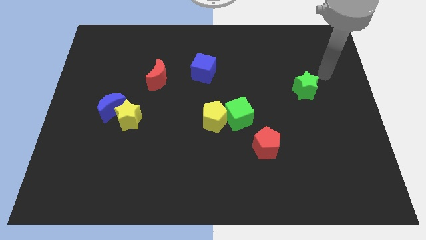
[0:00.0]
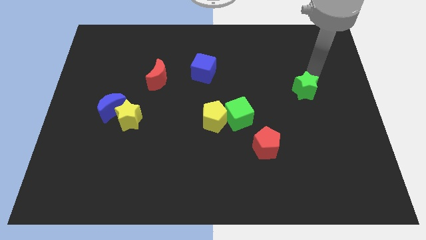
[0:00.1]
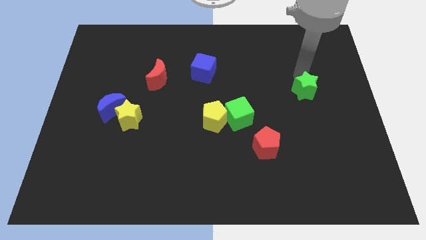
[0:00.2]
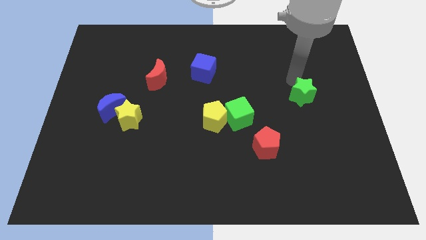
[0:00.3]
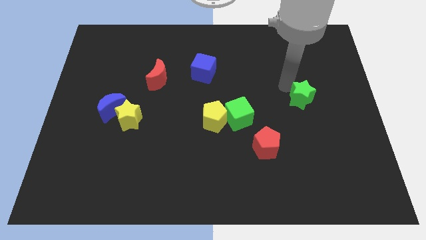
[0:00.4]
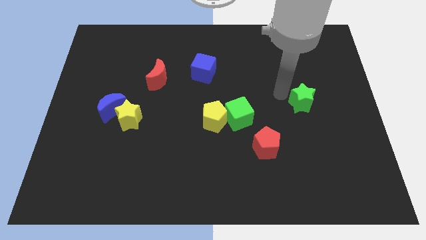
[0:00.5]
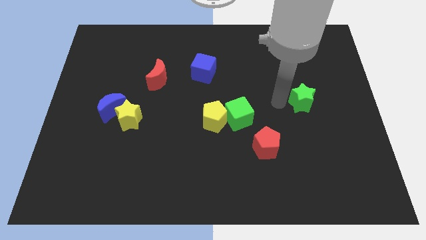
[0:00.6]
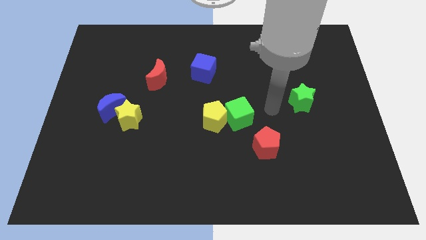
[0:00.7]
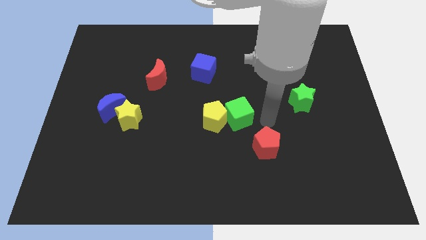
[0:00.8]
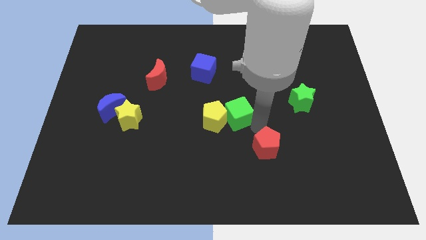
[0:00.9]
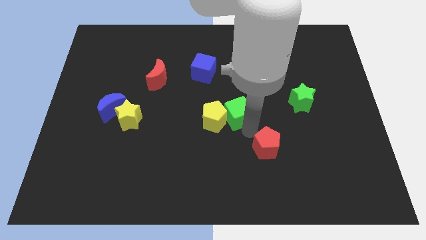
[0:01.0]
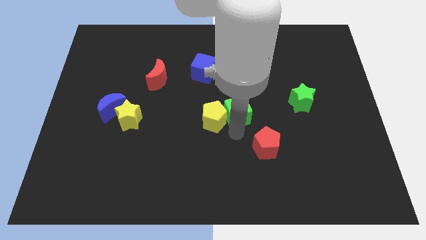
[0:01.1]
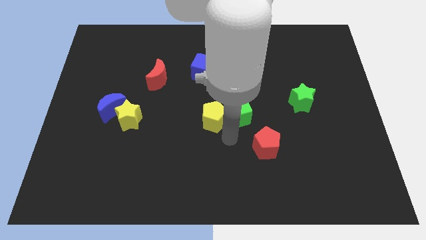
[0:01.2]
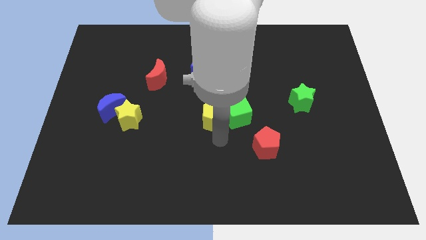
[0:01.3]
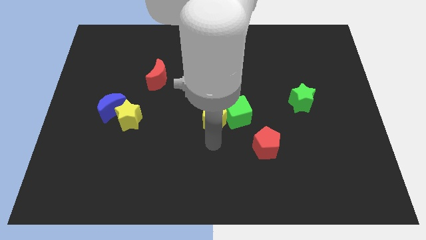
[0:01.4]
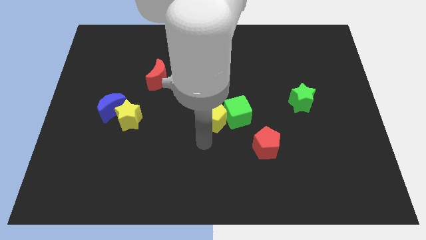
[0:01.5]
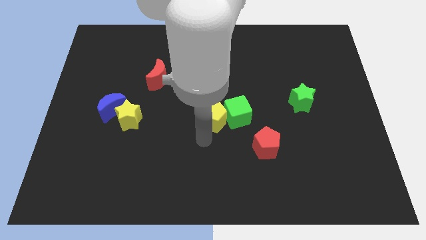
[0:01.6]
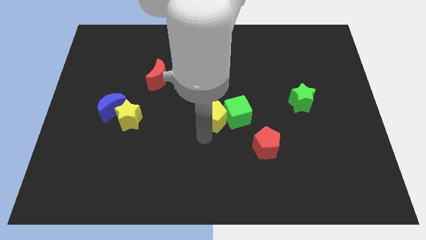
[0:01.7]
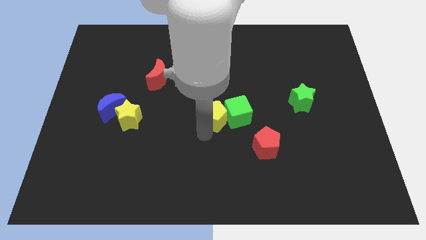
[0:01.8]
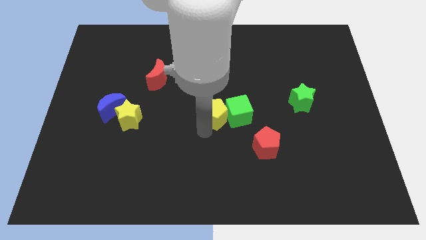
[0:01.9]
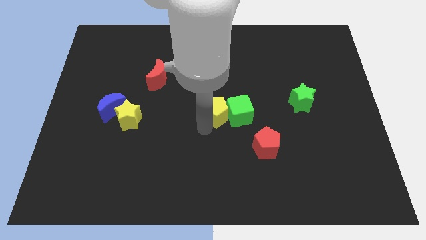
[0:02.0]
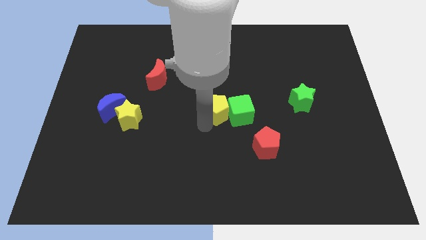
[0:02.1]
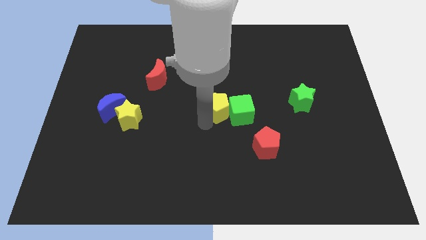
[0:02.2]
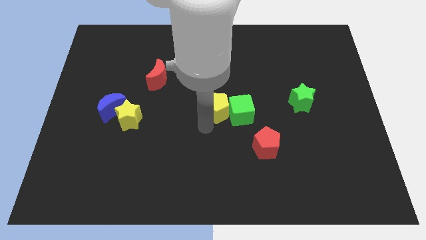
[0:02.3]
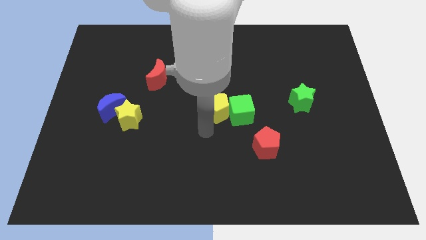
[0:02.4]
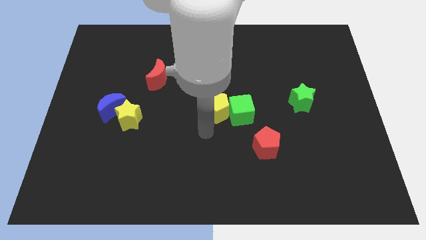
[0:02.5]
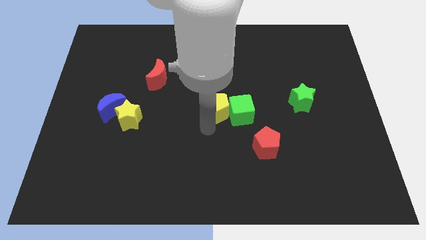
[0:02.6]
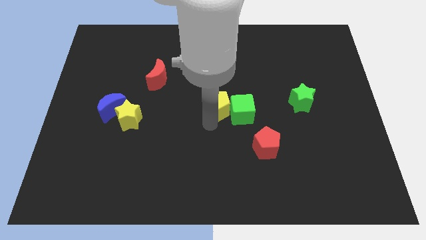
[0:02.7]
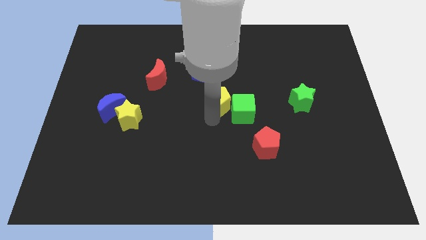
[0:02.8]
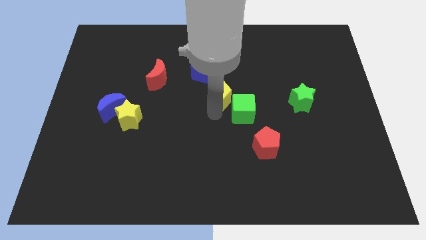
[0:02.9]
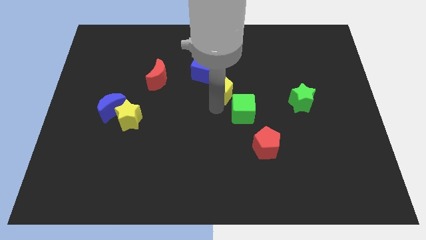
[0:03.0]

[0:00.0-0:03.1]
slightly move the yellow pentagon upwards

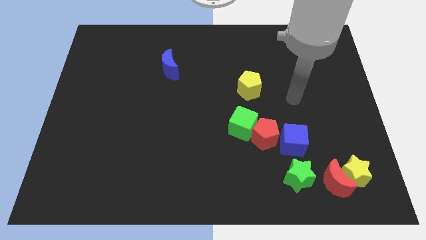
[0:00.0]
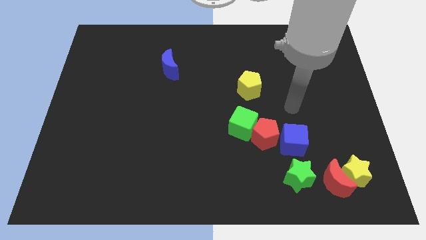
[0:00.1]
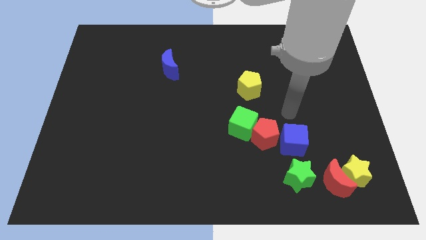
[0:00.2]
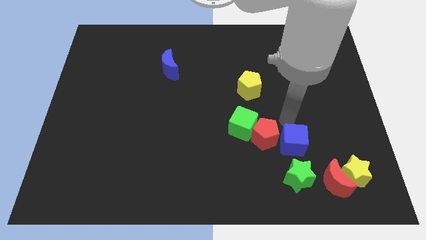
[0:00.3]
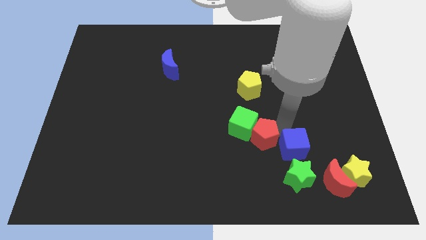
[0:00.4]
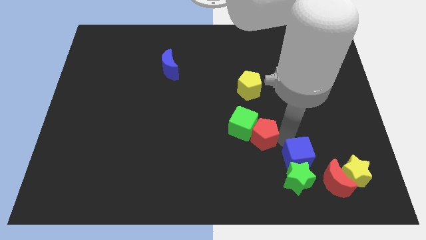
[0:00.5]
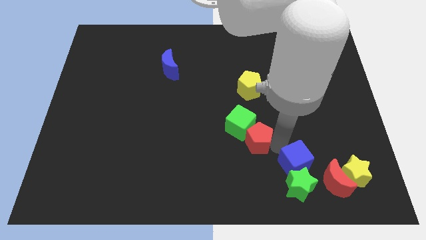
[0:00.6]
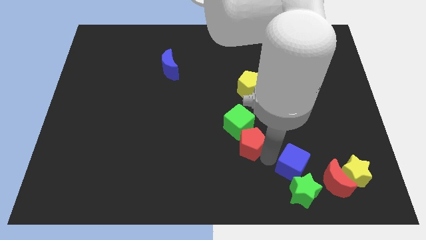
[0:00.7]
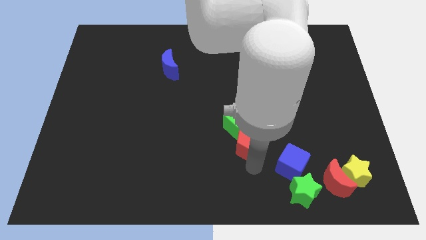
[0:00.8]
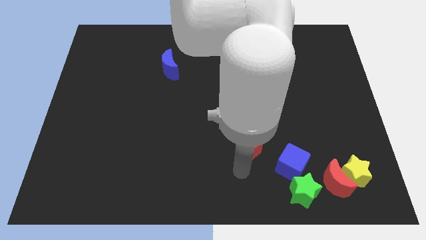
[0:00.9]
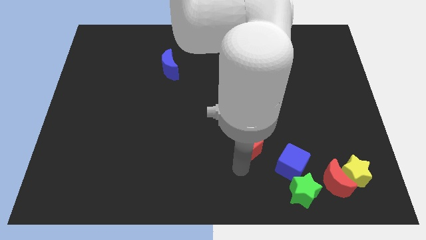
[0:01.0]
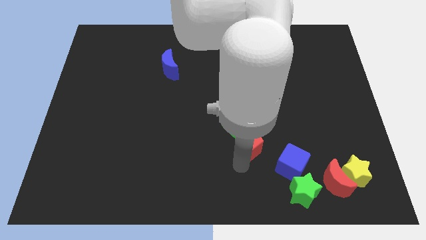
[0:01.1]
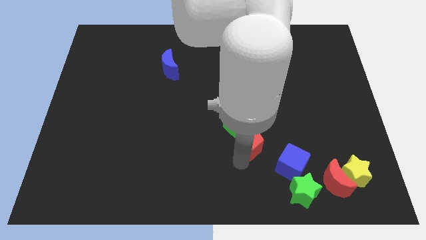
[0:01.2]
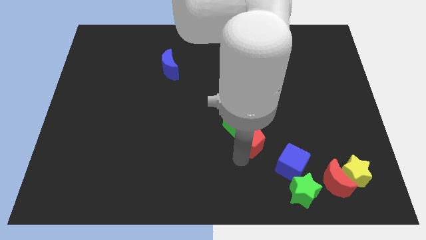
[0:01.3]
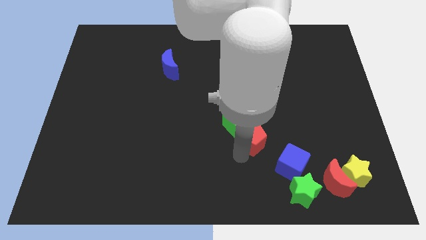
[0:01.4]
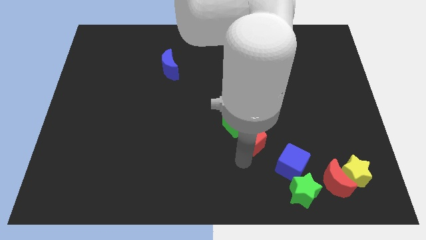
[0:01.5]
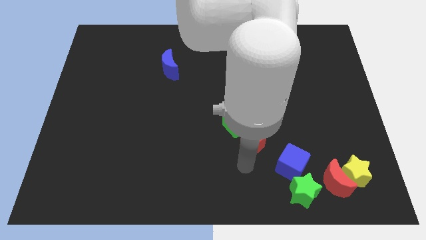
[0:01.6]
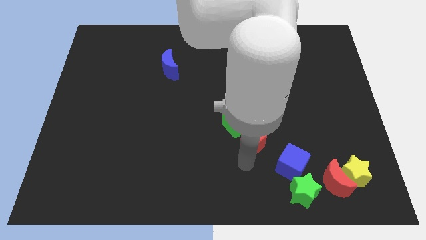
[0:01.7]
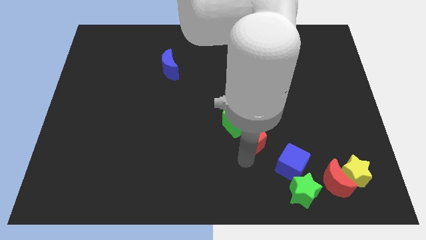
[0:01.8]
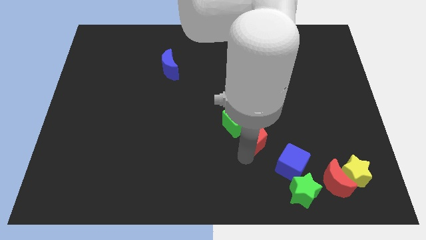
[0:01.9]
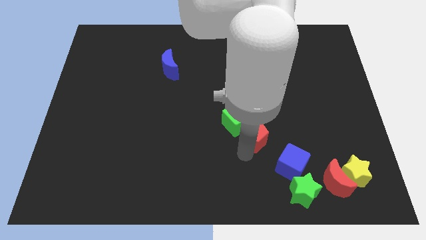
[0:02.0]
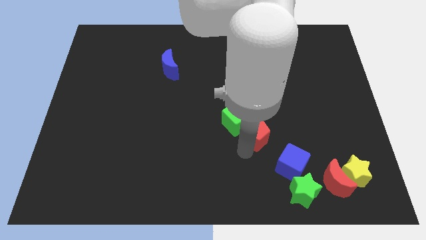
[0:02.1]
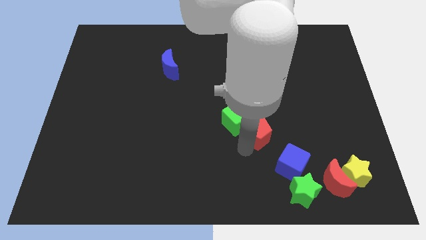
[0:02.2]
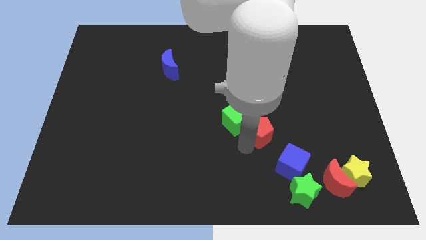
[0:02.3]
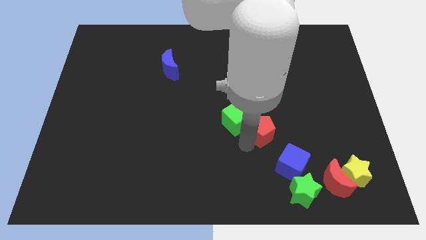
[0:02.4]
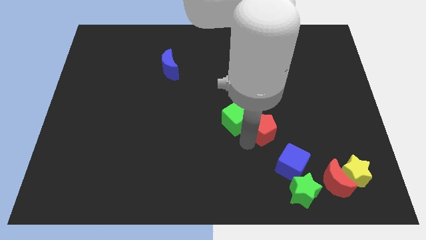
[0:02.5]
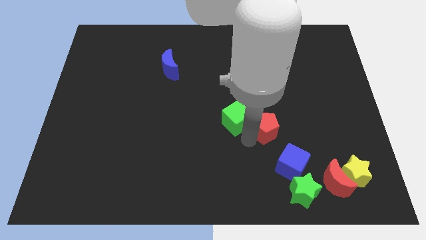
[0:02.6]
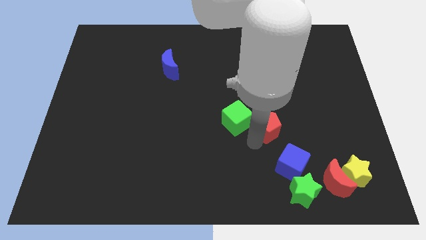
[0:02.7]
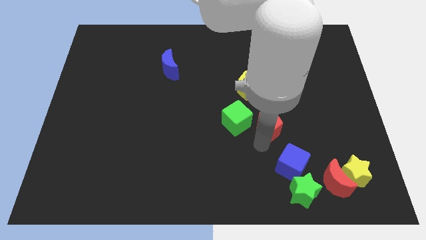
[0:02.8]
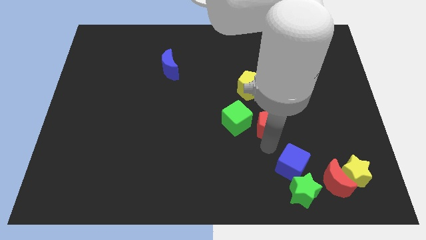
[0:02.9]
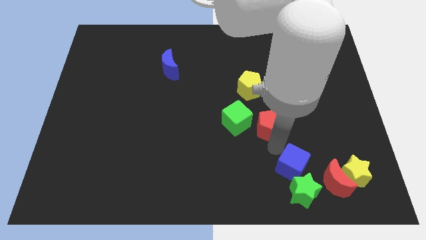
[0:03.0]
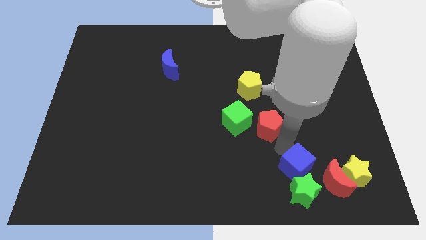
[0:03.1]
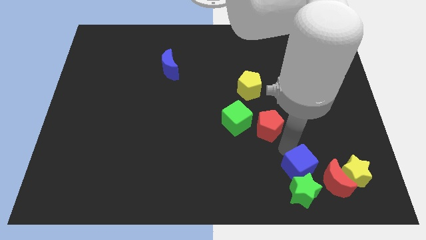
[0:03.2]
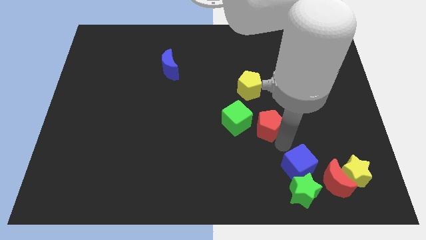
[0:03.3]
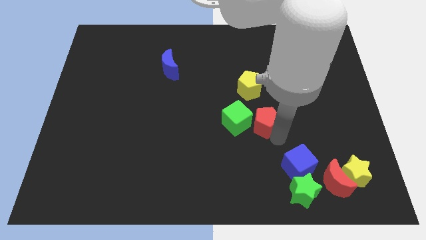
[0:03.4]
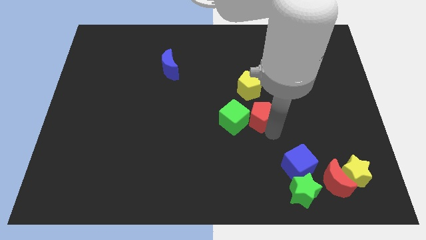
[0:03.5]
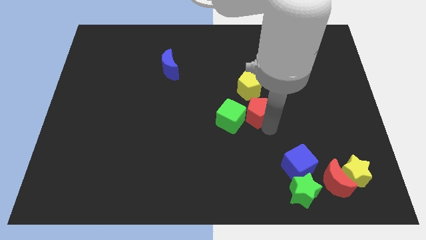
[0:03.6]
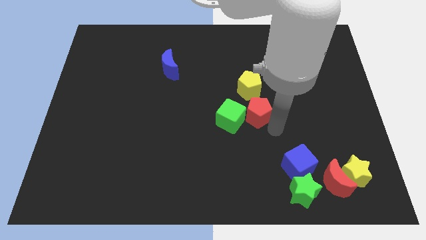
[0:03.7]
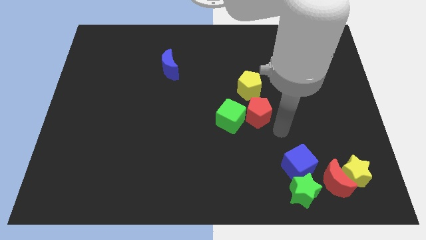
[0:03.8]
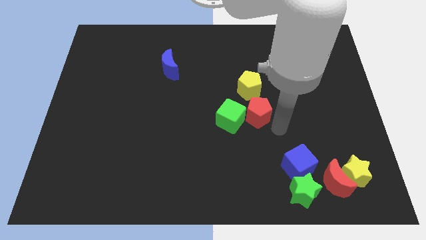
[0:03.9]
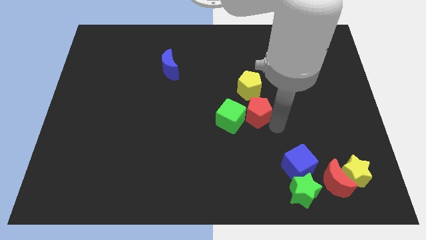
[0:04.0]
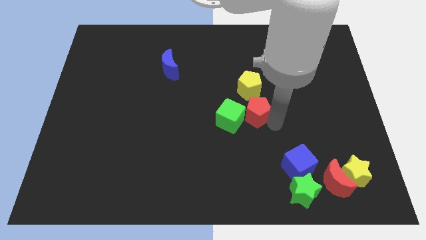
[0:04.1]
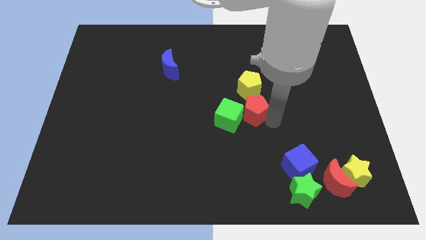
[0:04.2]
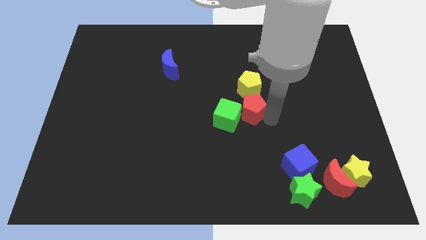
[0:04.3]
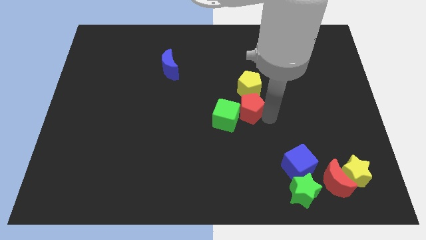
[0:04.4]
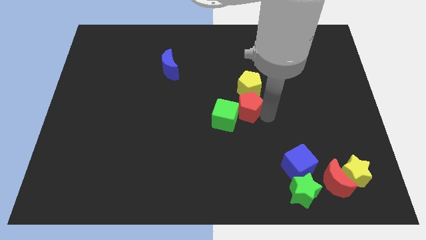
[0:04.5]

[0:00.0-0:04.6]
slightly slide the red pentagon up and to the left

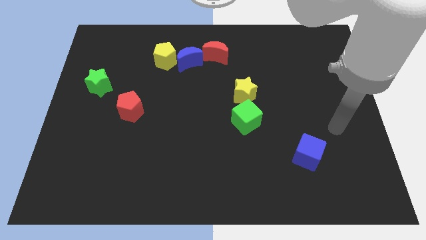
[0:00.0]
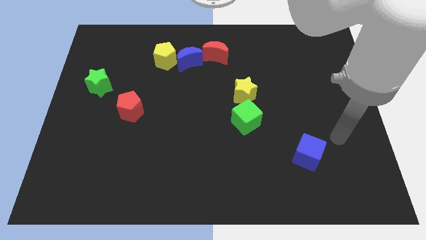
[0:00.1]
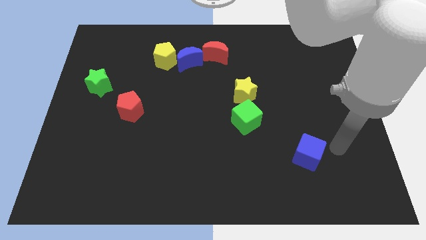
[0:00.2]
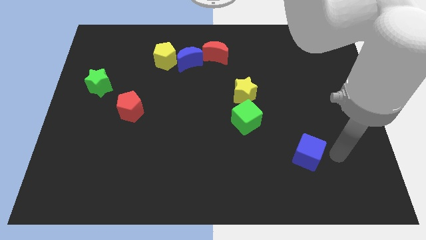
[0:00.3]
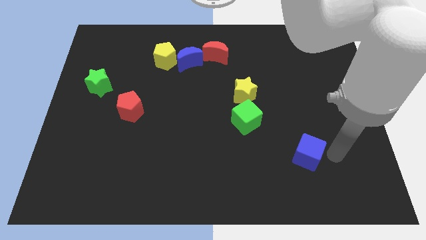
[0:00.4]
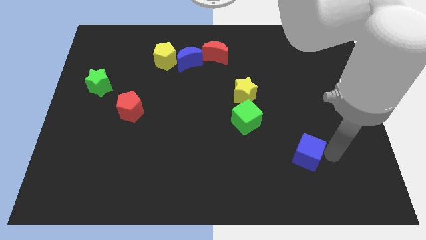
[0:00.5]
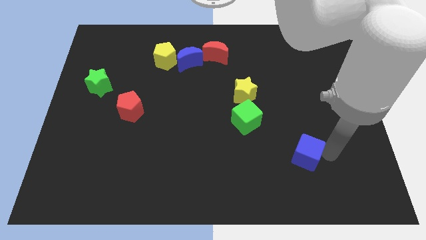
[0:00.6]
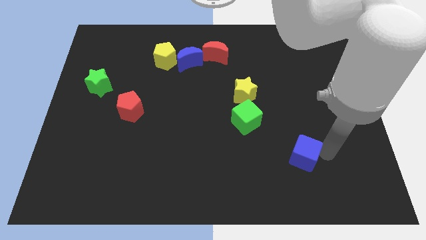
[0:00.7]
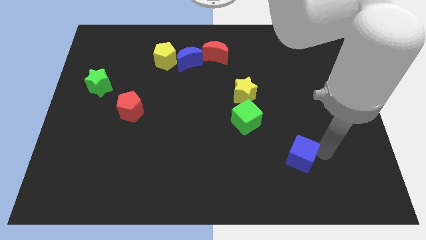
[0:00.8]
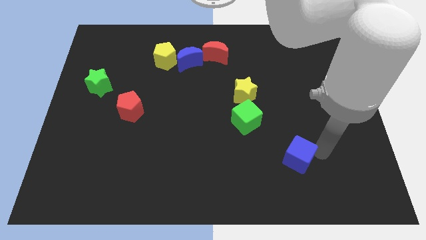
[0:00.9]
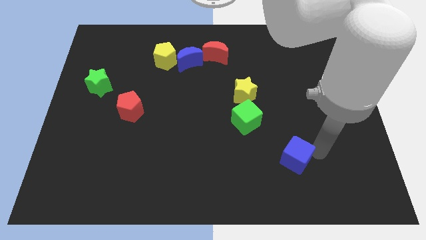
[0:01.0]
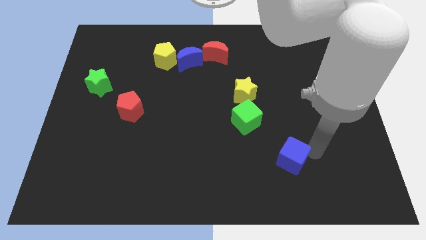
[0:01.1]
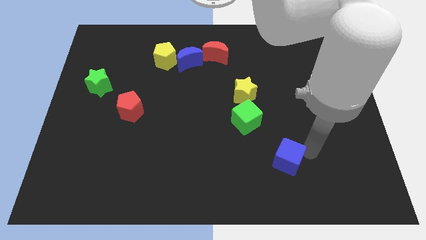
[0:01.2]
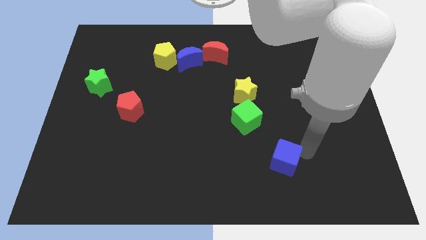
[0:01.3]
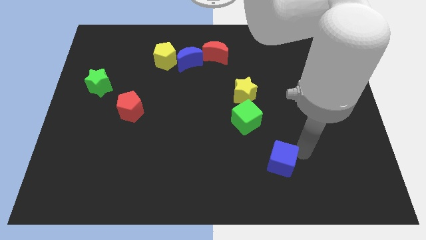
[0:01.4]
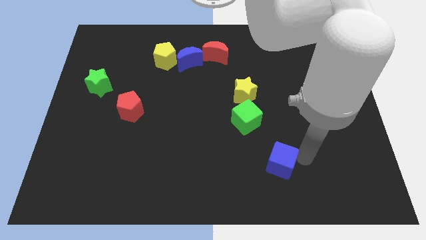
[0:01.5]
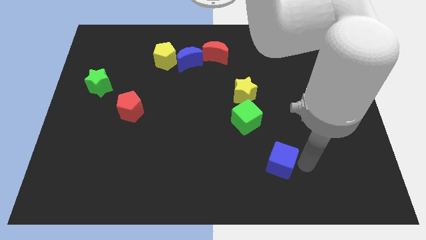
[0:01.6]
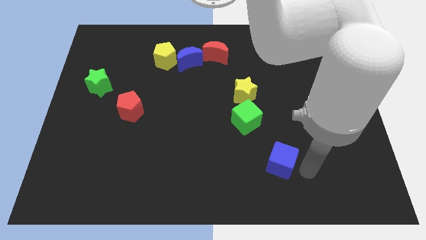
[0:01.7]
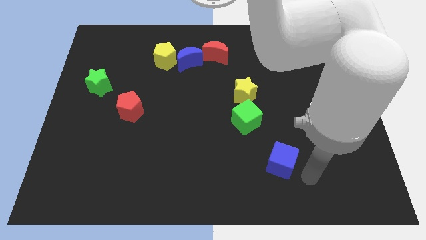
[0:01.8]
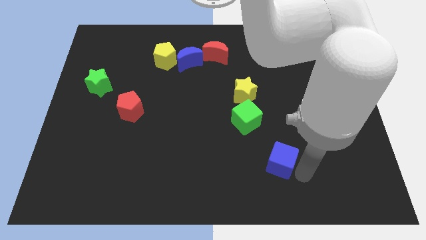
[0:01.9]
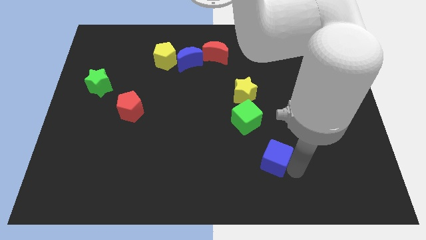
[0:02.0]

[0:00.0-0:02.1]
slightly push the blue cube left
